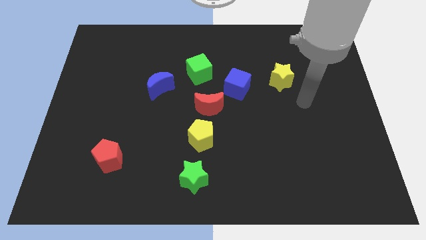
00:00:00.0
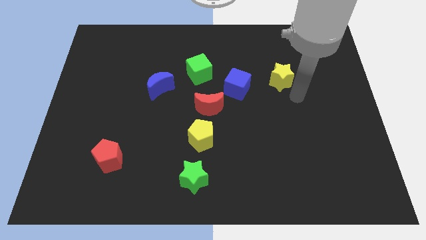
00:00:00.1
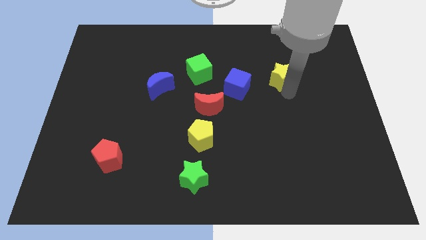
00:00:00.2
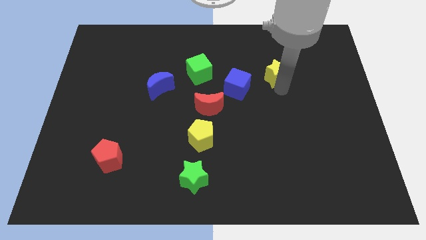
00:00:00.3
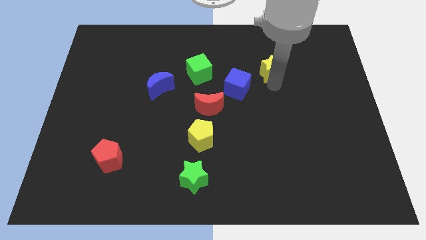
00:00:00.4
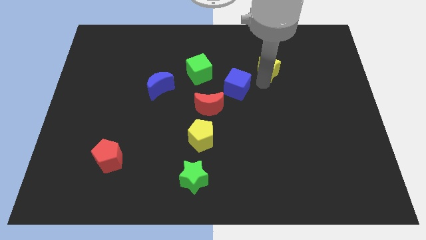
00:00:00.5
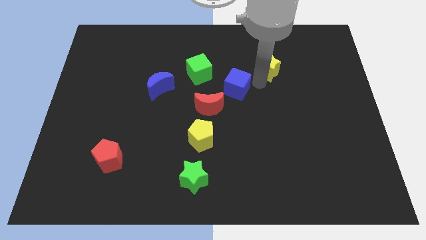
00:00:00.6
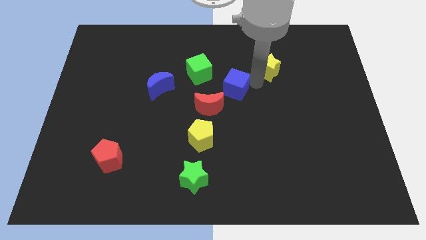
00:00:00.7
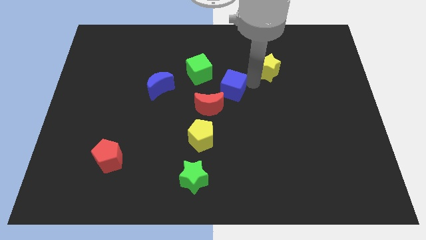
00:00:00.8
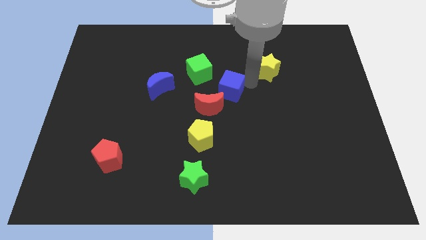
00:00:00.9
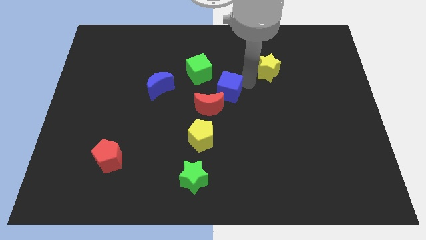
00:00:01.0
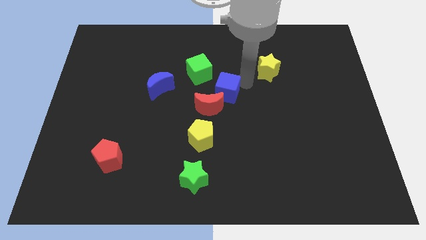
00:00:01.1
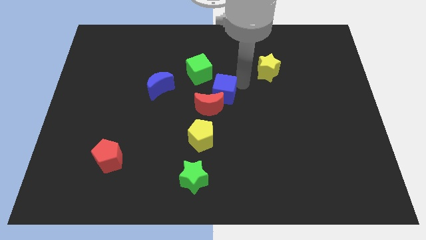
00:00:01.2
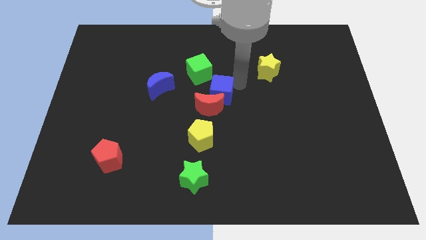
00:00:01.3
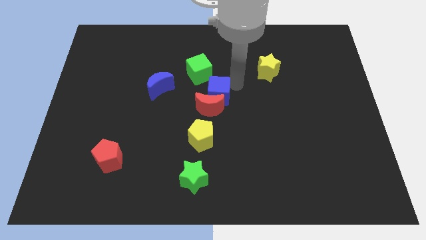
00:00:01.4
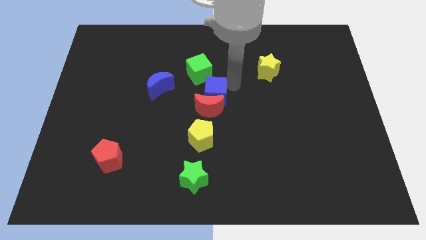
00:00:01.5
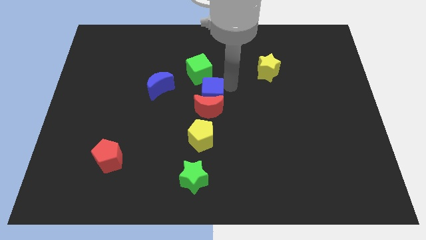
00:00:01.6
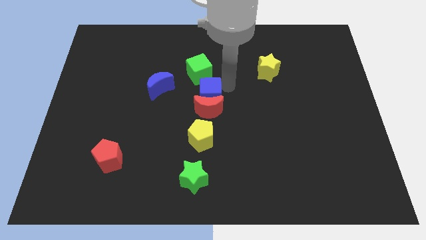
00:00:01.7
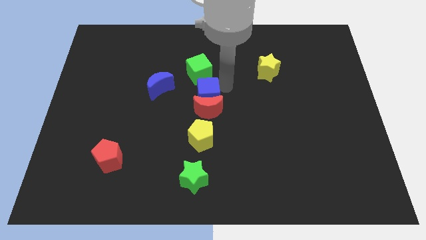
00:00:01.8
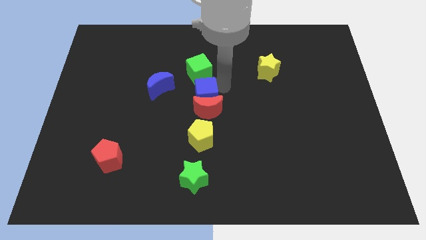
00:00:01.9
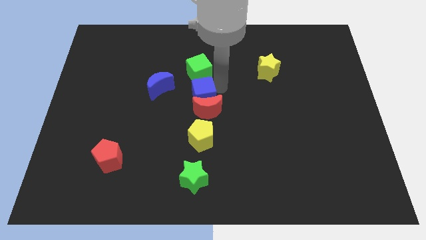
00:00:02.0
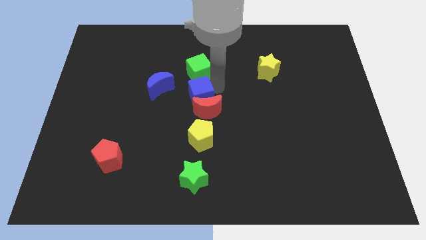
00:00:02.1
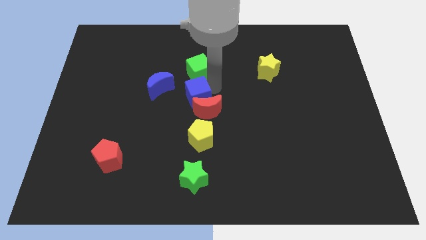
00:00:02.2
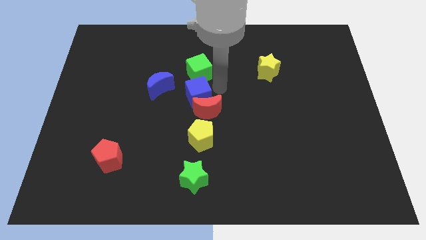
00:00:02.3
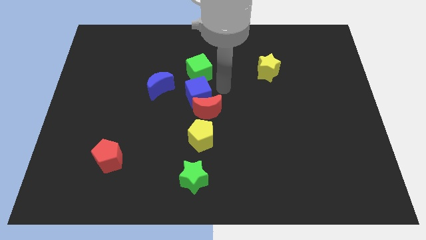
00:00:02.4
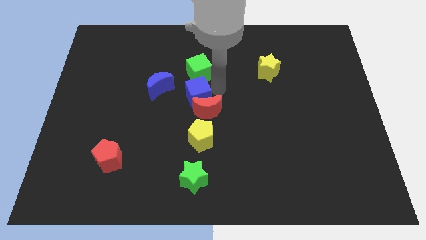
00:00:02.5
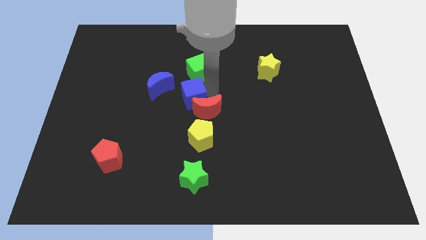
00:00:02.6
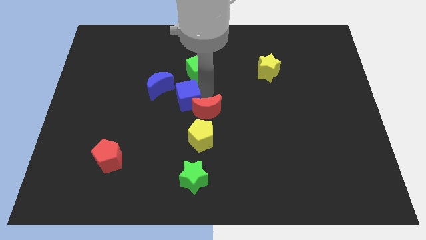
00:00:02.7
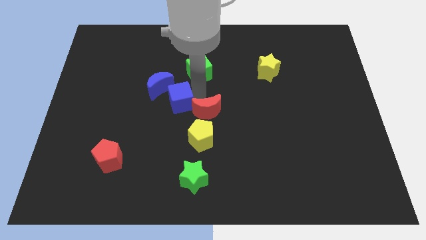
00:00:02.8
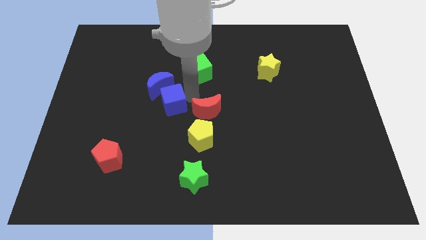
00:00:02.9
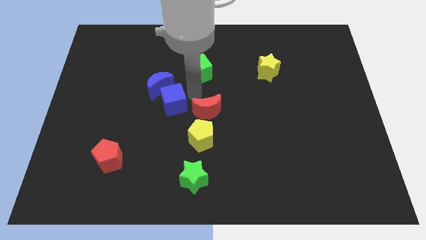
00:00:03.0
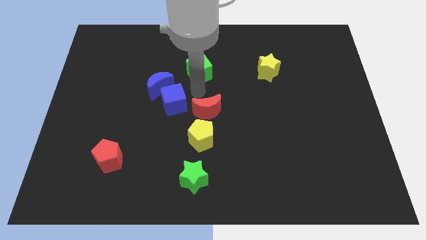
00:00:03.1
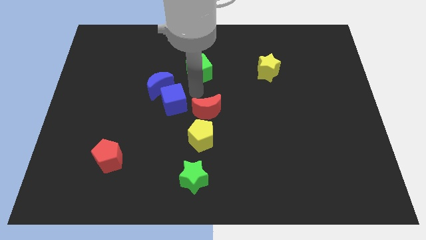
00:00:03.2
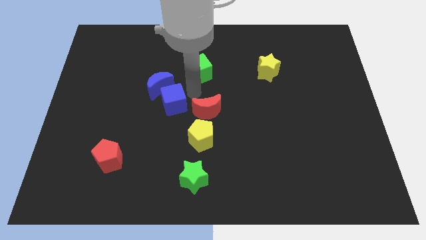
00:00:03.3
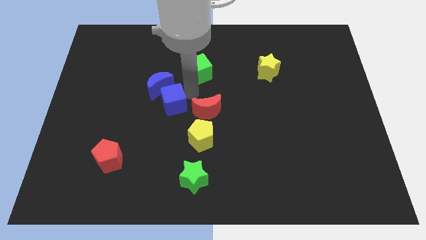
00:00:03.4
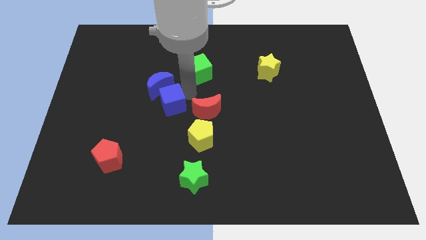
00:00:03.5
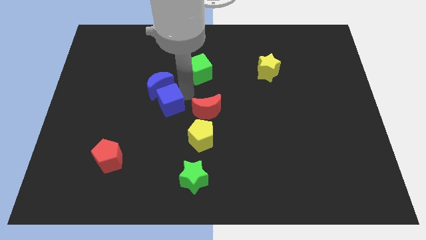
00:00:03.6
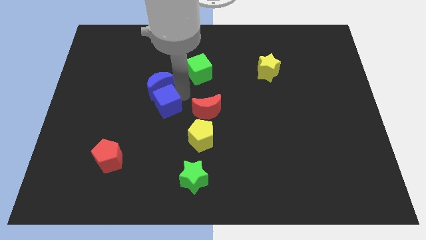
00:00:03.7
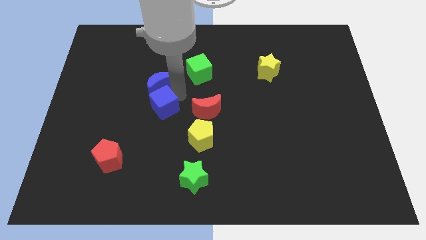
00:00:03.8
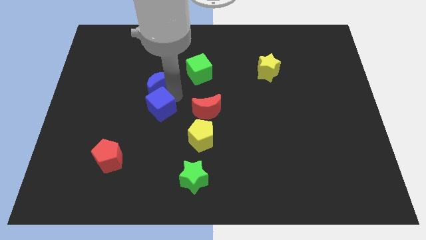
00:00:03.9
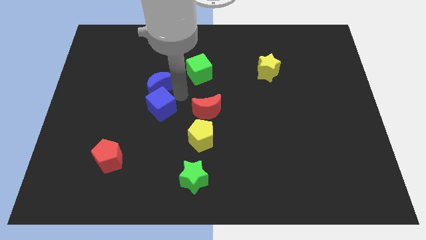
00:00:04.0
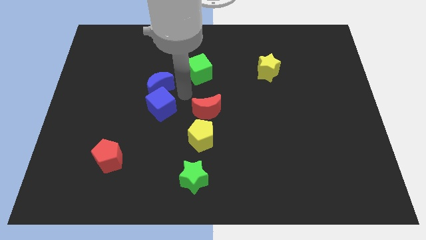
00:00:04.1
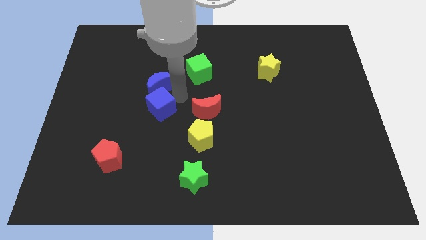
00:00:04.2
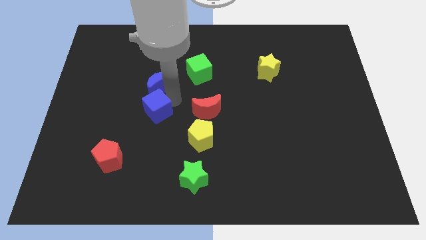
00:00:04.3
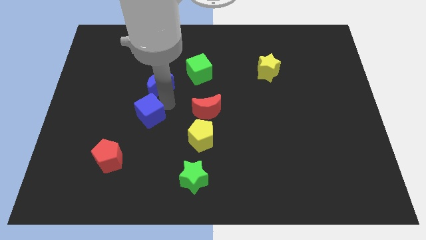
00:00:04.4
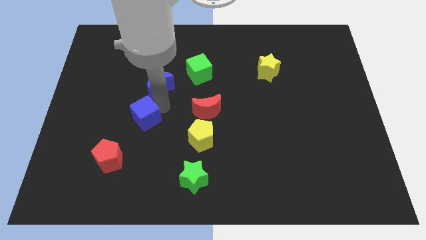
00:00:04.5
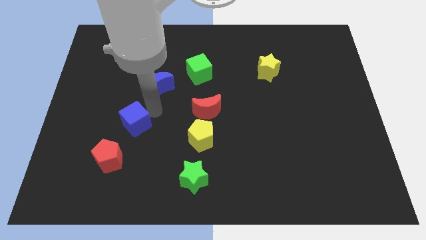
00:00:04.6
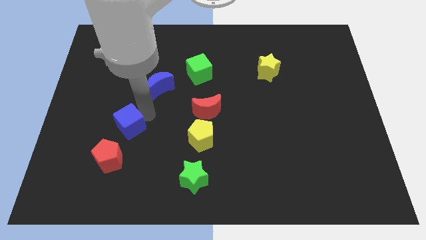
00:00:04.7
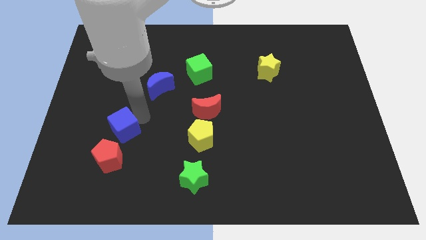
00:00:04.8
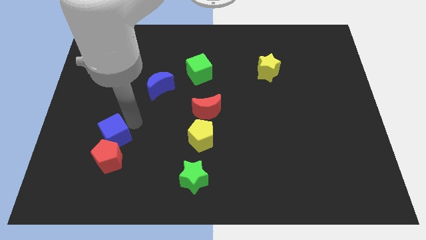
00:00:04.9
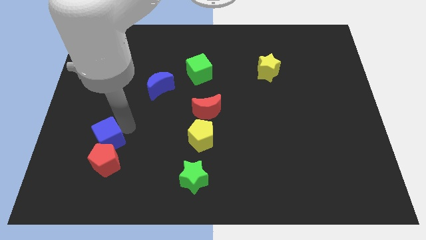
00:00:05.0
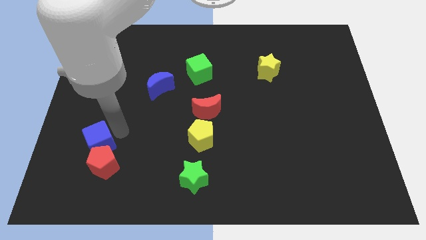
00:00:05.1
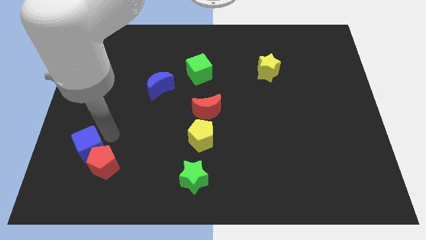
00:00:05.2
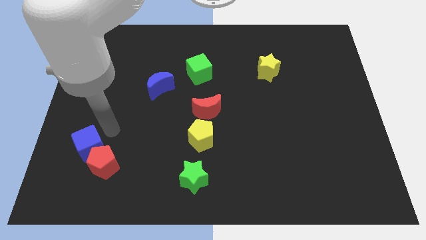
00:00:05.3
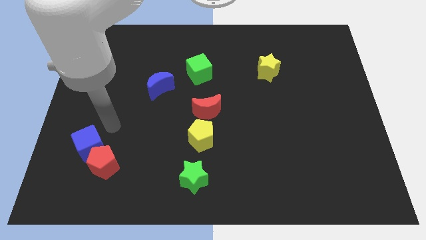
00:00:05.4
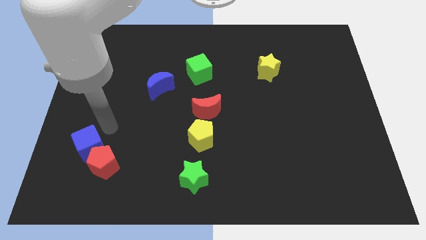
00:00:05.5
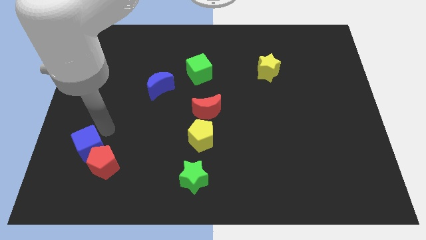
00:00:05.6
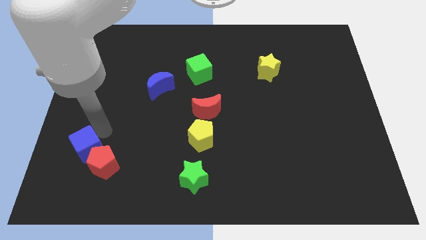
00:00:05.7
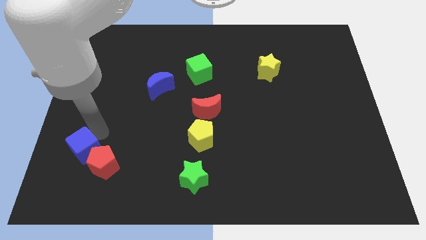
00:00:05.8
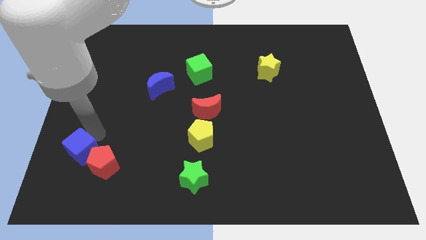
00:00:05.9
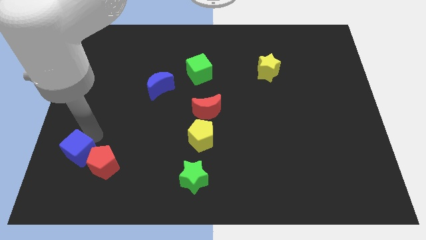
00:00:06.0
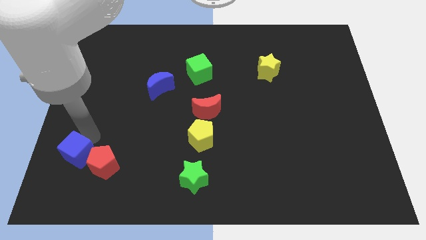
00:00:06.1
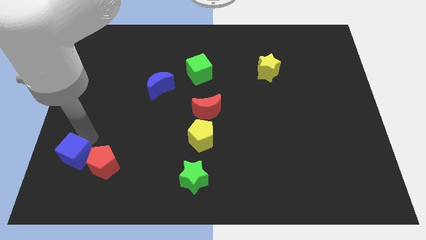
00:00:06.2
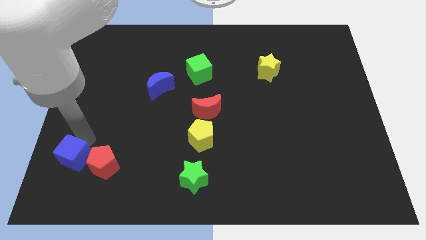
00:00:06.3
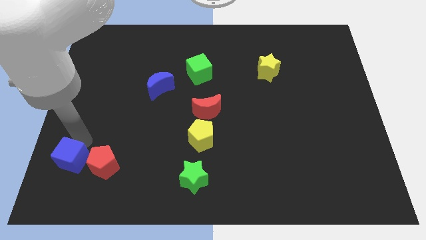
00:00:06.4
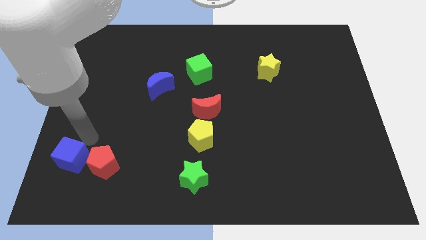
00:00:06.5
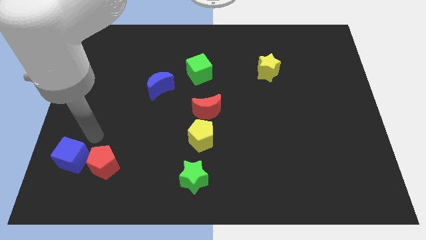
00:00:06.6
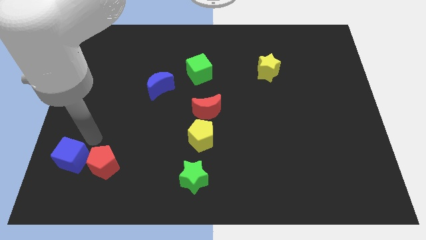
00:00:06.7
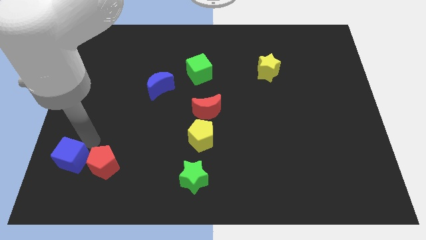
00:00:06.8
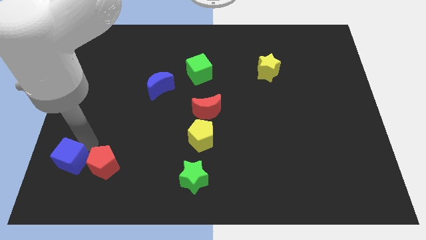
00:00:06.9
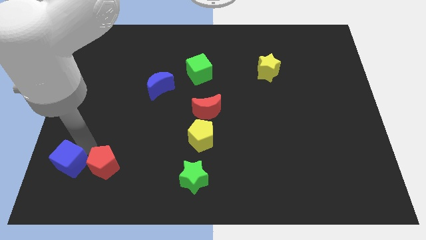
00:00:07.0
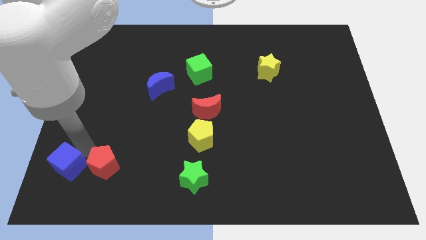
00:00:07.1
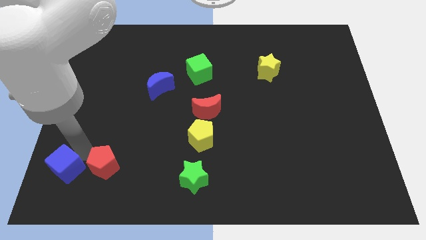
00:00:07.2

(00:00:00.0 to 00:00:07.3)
move the blue cube to the lower left corner
